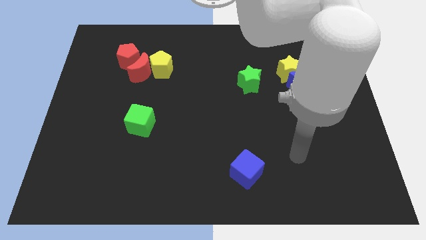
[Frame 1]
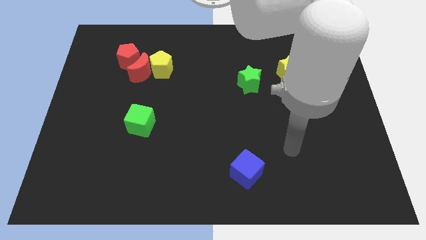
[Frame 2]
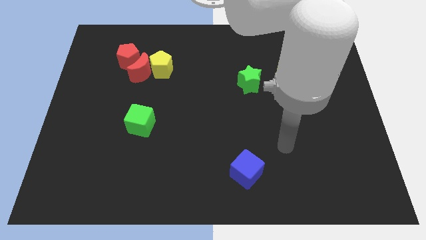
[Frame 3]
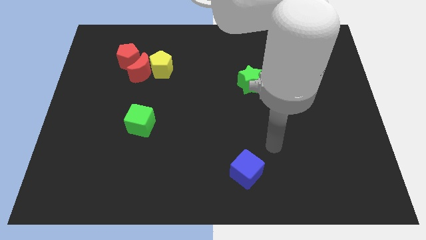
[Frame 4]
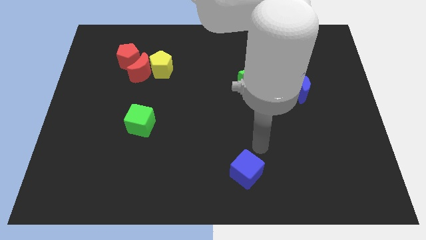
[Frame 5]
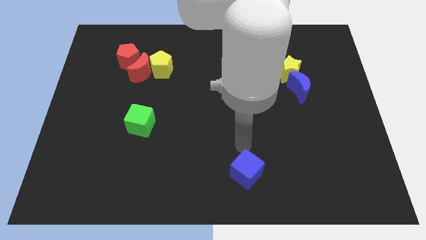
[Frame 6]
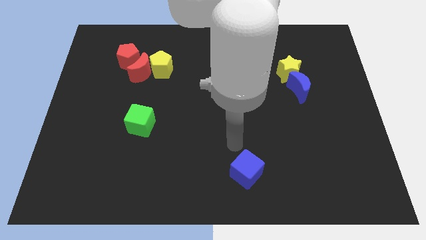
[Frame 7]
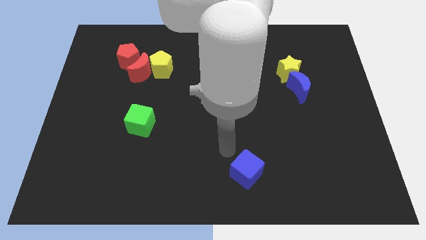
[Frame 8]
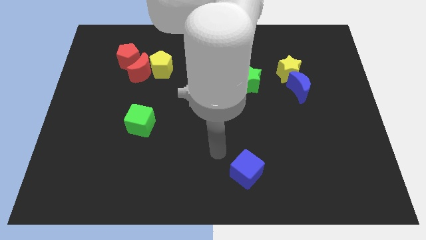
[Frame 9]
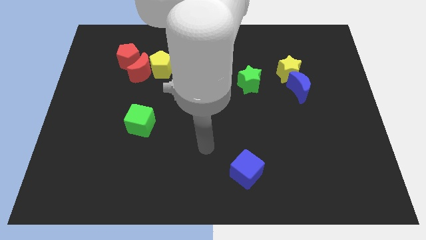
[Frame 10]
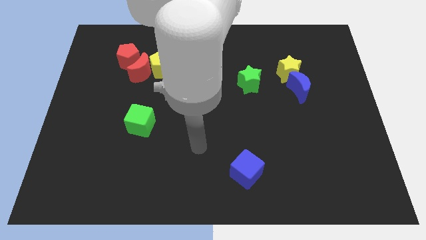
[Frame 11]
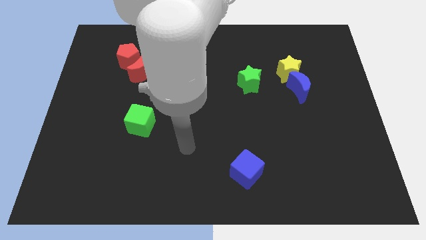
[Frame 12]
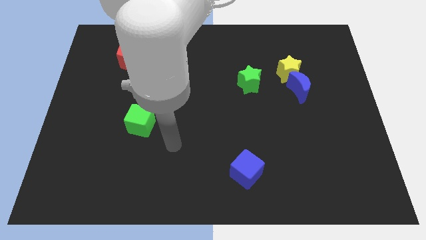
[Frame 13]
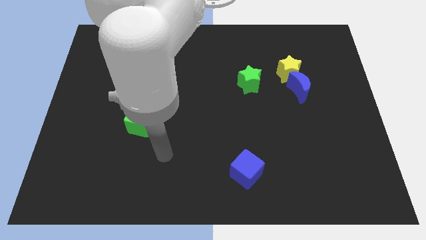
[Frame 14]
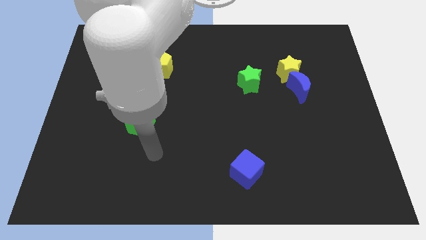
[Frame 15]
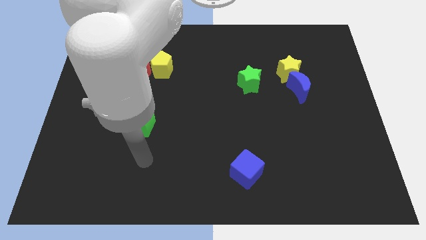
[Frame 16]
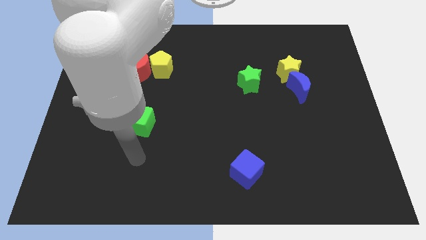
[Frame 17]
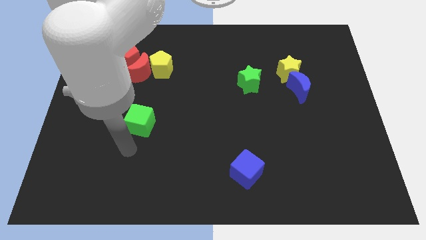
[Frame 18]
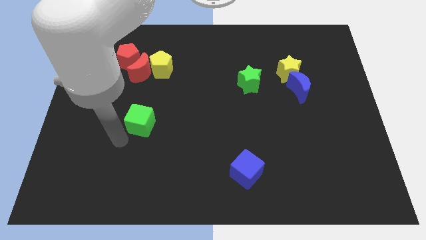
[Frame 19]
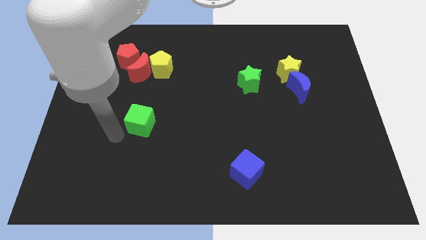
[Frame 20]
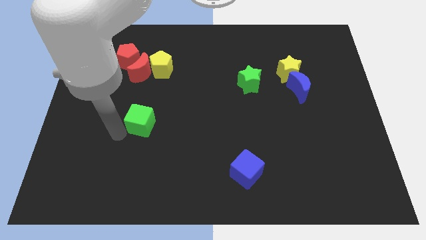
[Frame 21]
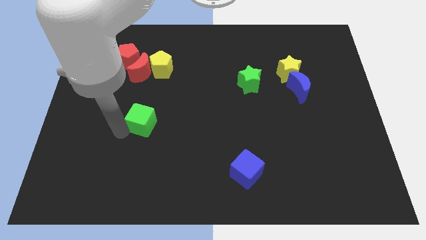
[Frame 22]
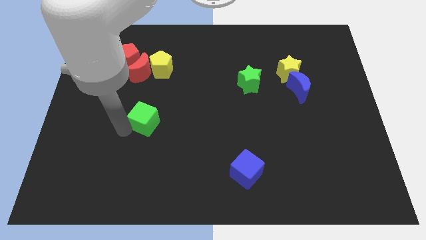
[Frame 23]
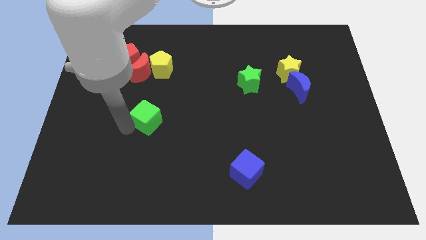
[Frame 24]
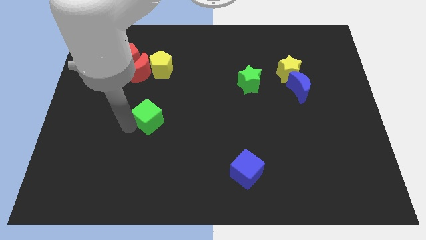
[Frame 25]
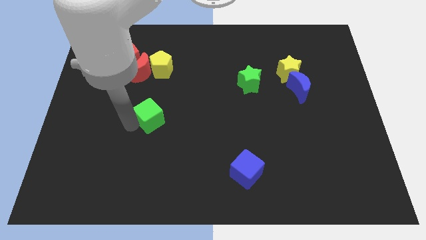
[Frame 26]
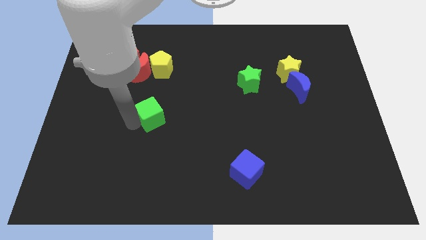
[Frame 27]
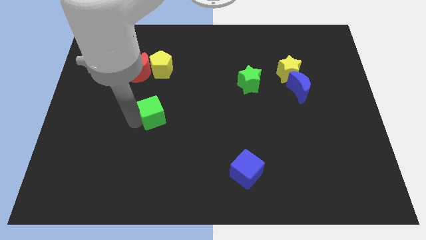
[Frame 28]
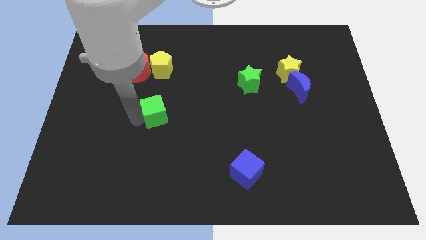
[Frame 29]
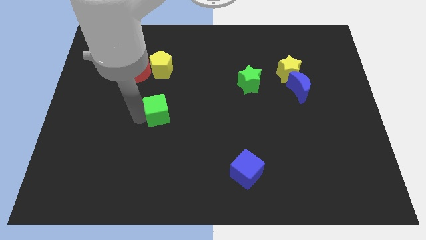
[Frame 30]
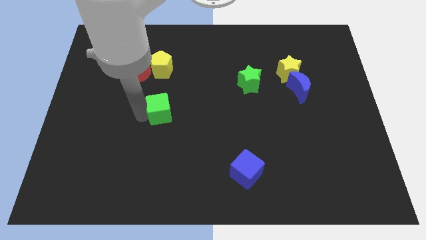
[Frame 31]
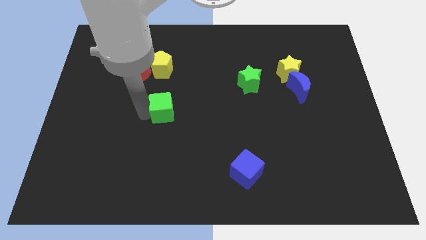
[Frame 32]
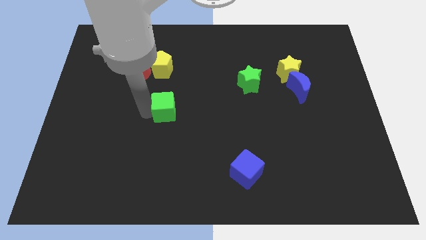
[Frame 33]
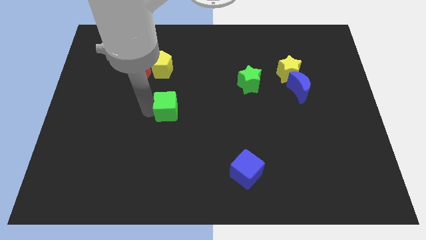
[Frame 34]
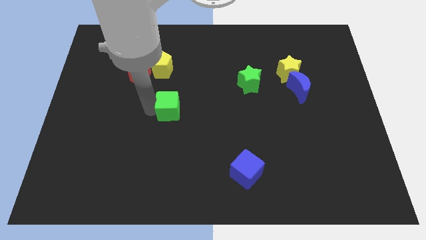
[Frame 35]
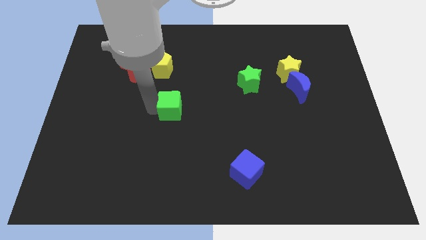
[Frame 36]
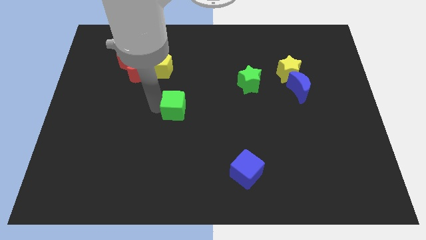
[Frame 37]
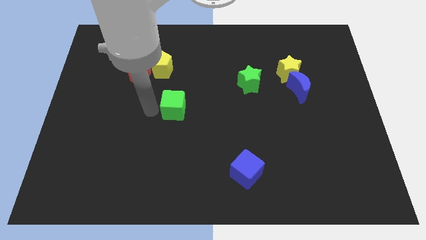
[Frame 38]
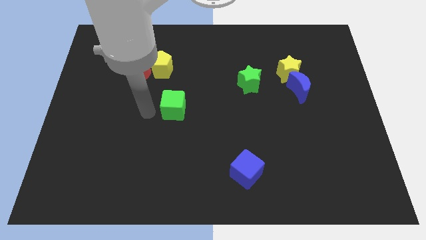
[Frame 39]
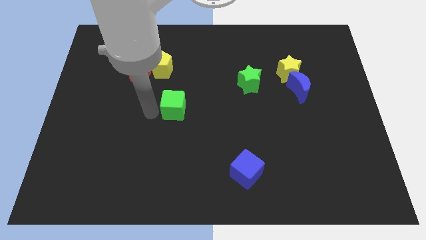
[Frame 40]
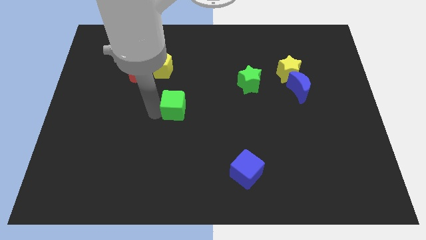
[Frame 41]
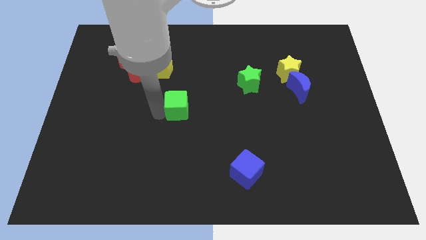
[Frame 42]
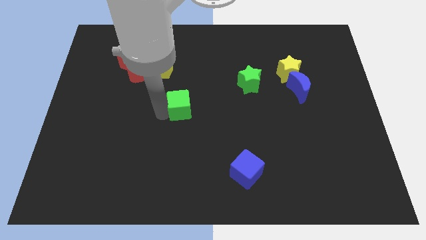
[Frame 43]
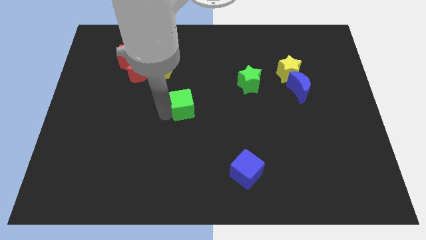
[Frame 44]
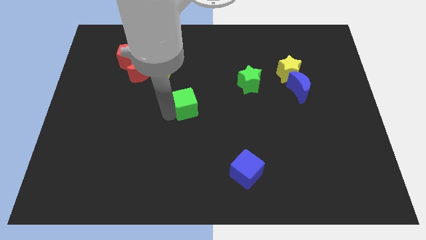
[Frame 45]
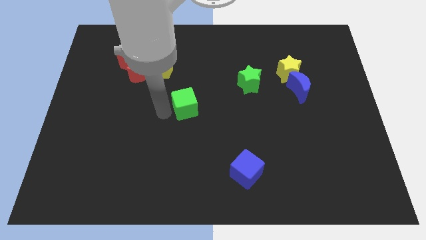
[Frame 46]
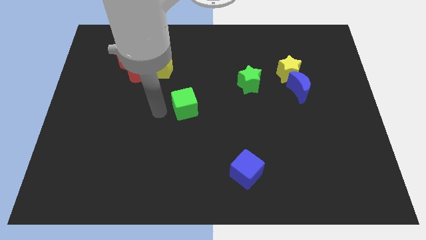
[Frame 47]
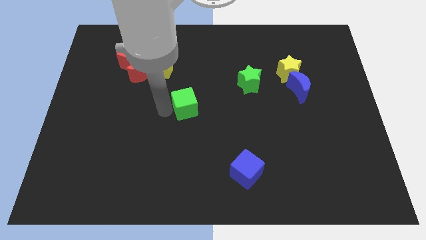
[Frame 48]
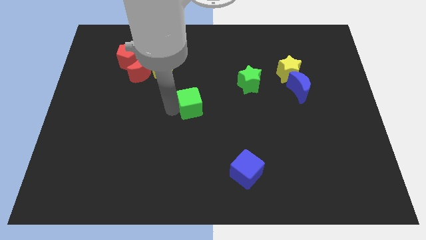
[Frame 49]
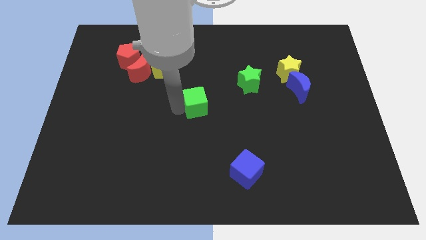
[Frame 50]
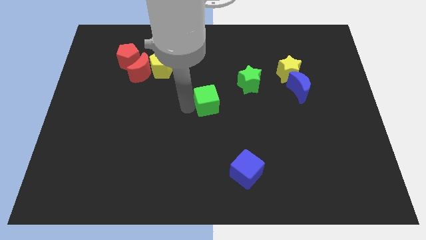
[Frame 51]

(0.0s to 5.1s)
slide the green cube to the bottom left side of the green star

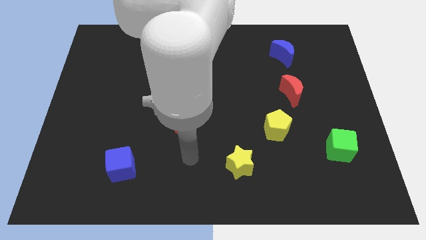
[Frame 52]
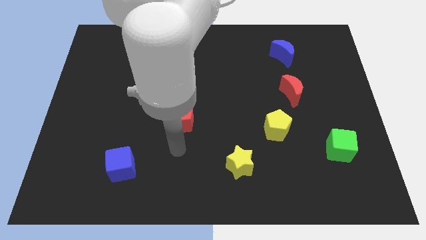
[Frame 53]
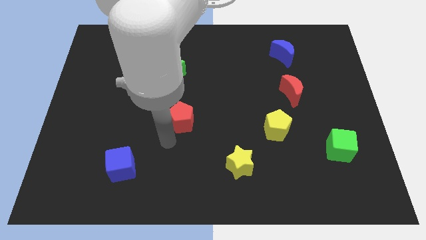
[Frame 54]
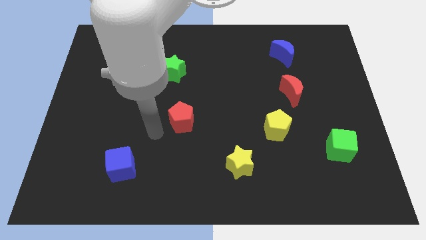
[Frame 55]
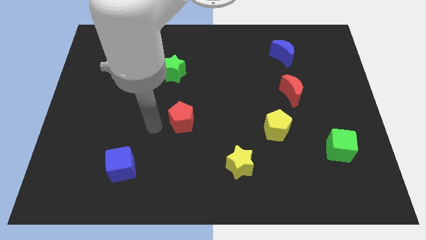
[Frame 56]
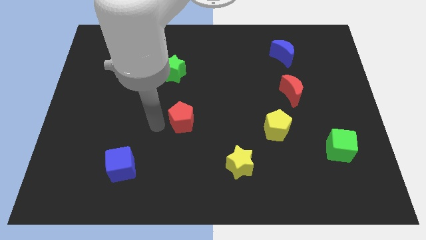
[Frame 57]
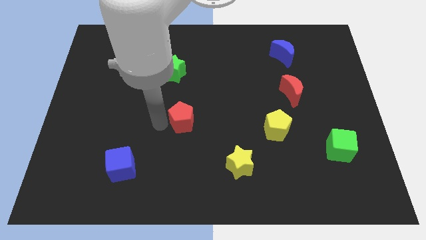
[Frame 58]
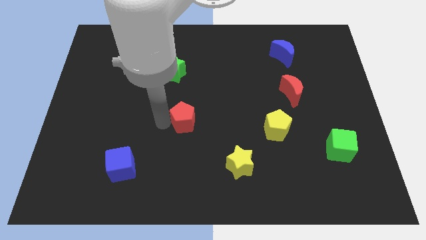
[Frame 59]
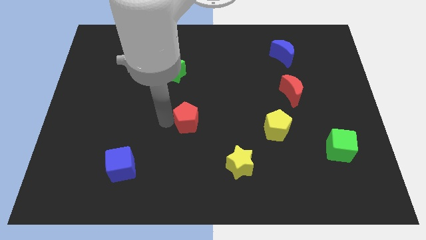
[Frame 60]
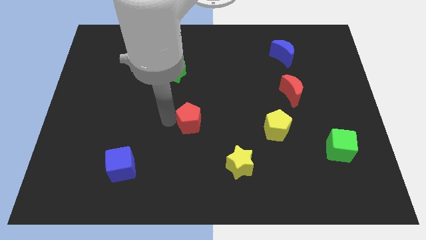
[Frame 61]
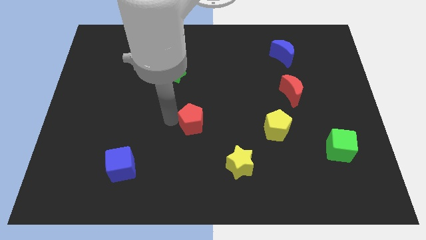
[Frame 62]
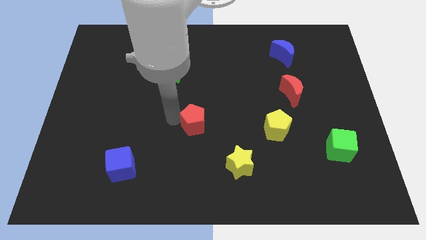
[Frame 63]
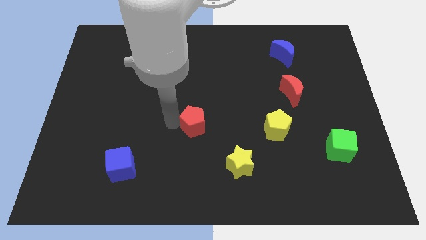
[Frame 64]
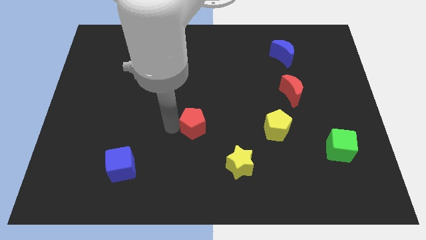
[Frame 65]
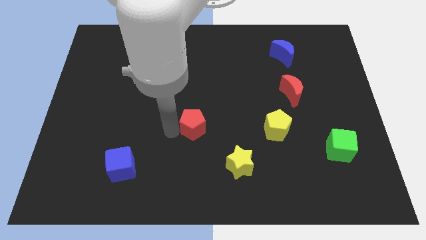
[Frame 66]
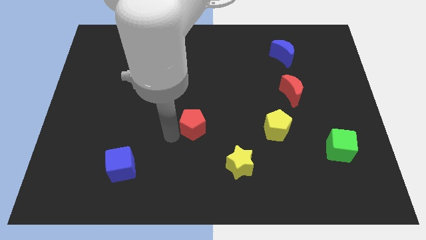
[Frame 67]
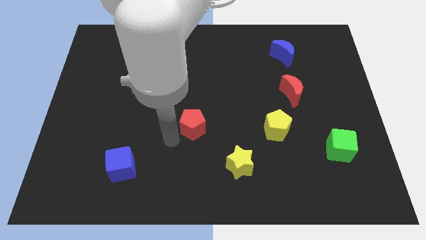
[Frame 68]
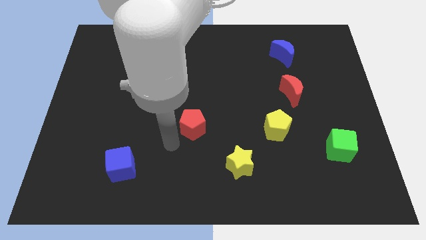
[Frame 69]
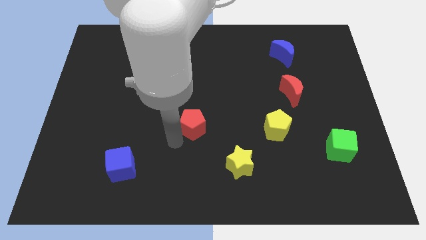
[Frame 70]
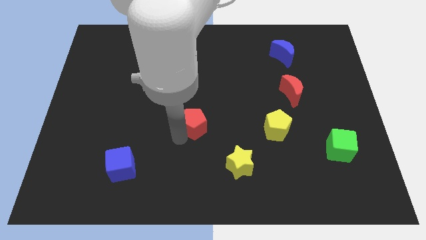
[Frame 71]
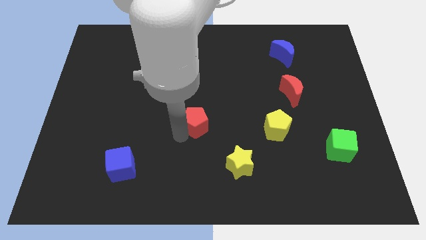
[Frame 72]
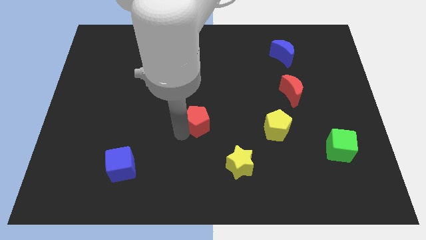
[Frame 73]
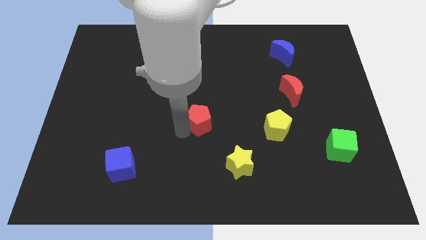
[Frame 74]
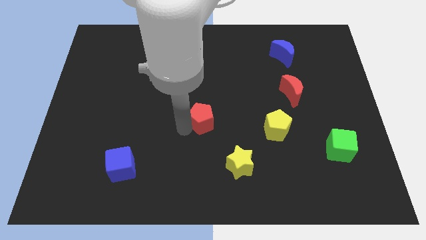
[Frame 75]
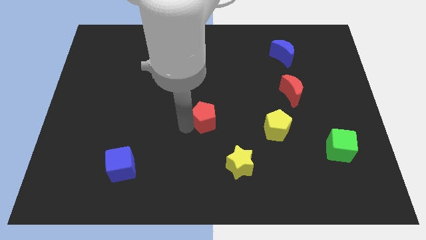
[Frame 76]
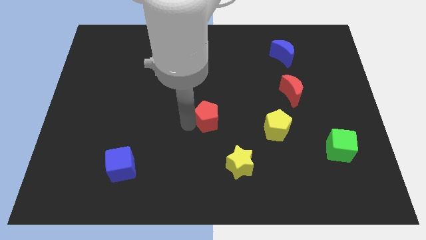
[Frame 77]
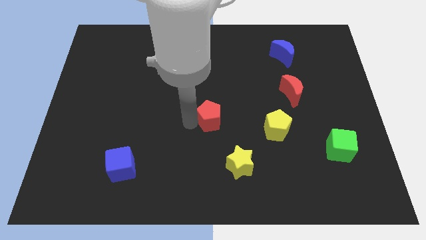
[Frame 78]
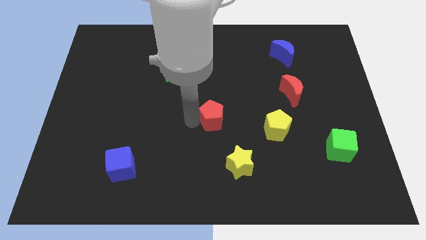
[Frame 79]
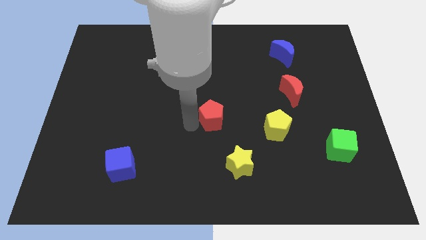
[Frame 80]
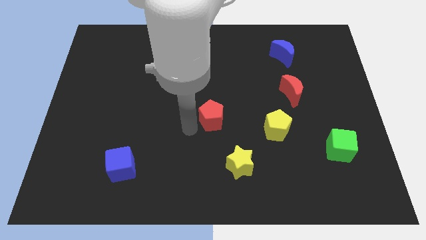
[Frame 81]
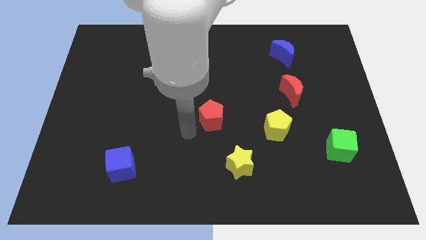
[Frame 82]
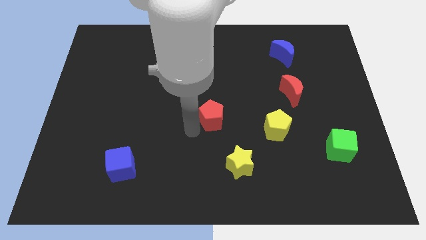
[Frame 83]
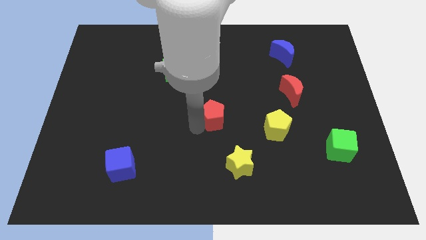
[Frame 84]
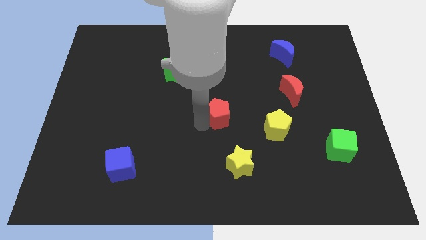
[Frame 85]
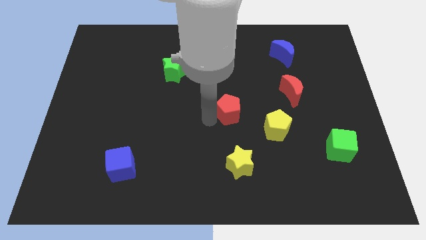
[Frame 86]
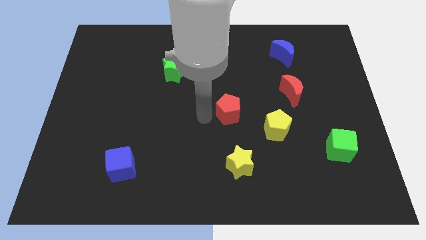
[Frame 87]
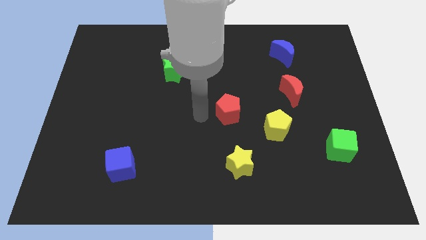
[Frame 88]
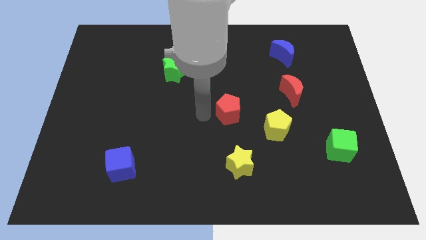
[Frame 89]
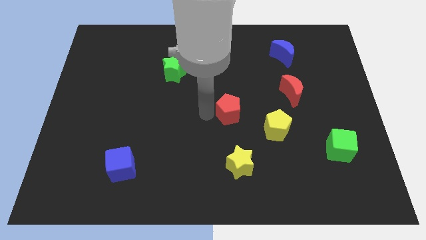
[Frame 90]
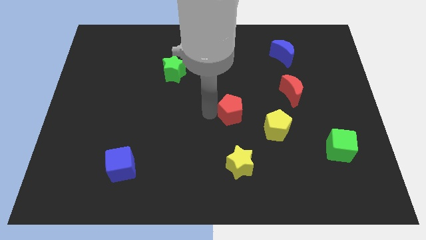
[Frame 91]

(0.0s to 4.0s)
push the red pentagon diagonally up and to the left of the yellow pentagon
